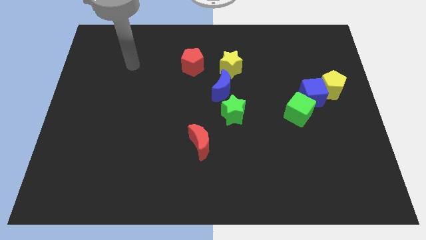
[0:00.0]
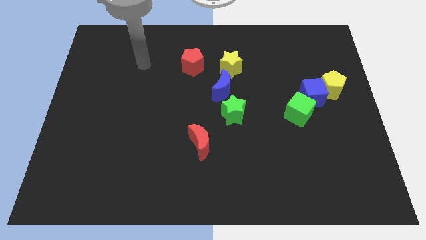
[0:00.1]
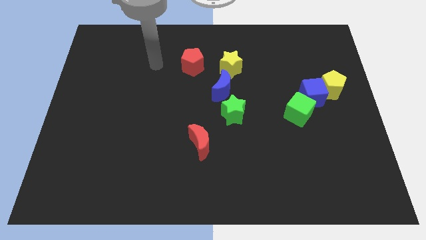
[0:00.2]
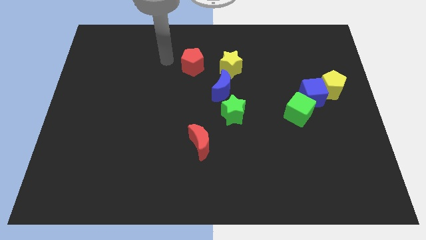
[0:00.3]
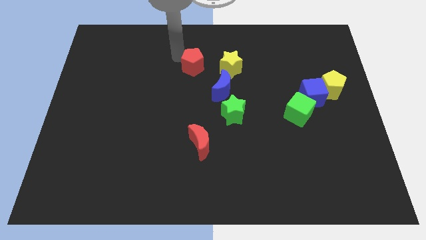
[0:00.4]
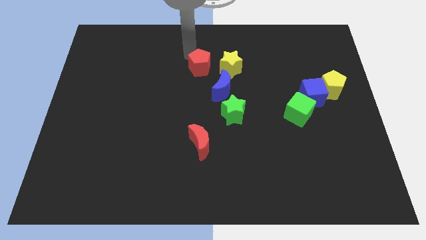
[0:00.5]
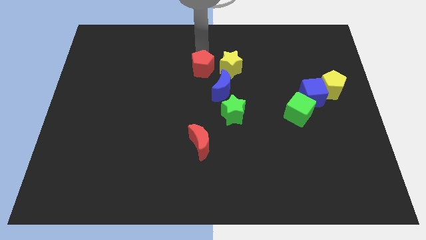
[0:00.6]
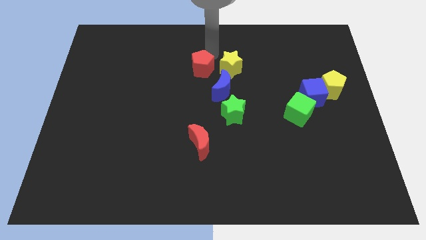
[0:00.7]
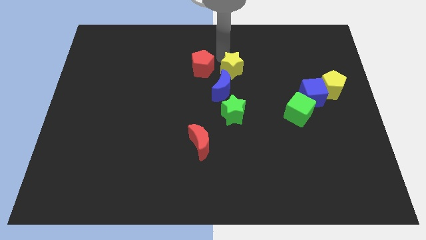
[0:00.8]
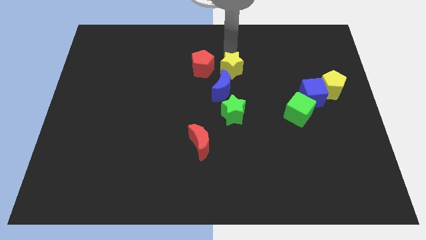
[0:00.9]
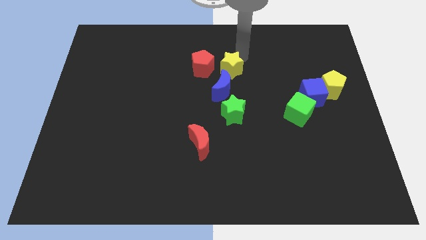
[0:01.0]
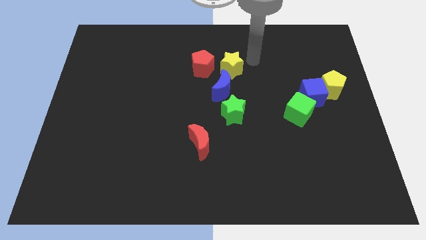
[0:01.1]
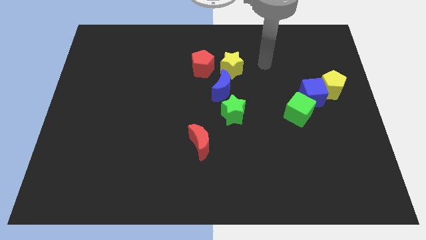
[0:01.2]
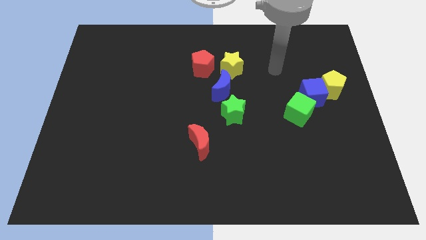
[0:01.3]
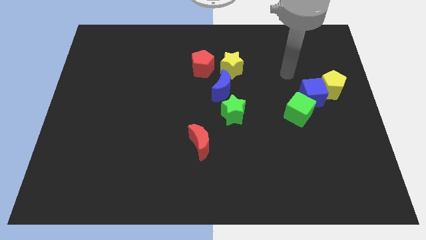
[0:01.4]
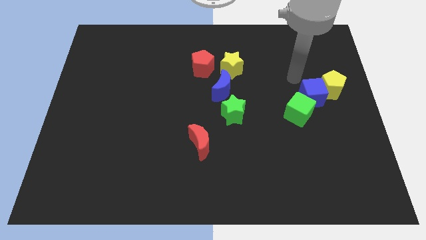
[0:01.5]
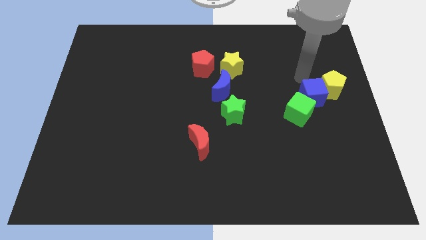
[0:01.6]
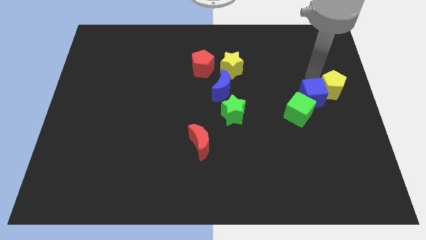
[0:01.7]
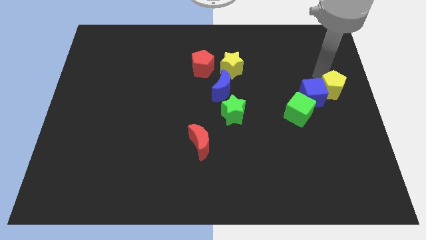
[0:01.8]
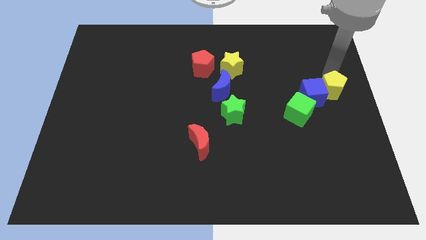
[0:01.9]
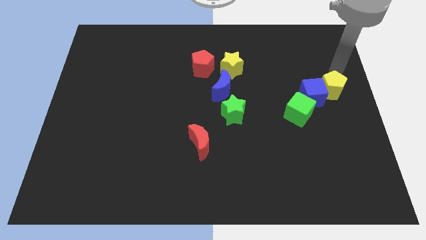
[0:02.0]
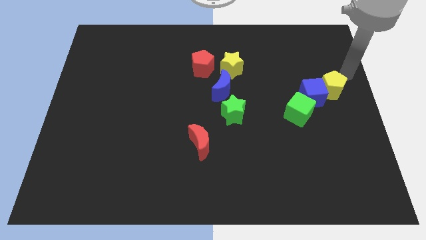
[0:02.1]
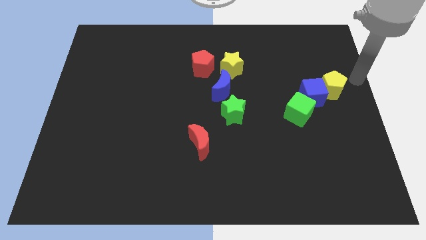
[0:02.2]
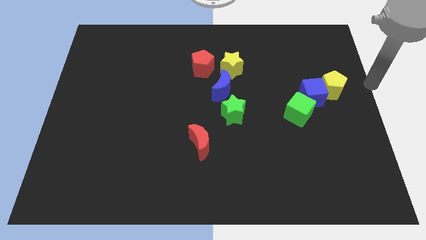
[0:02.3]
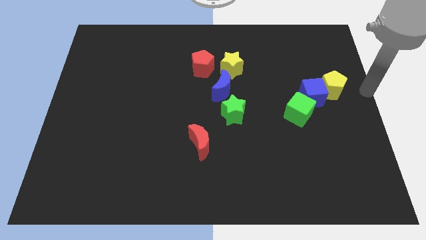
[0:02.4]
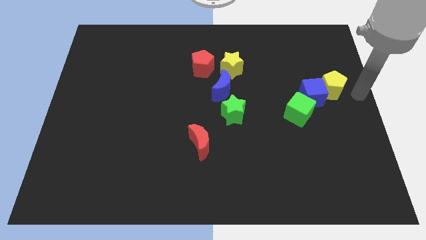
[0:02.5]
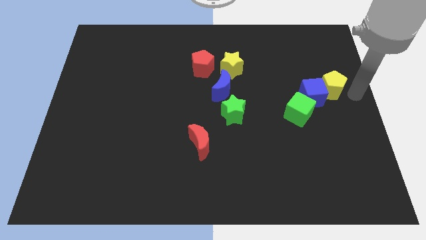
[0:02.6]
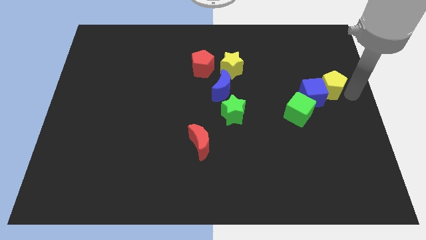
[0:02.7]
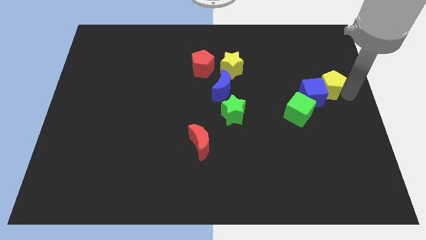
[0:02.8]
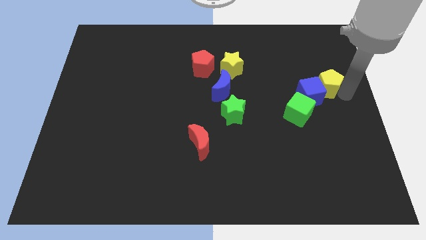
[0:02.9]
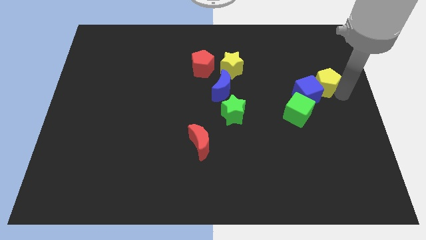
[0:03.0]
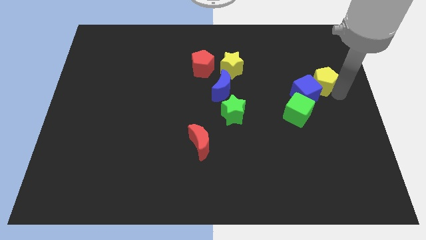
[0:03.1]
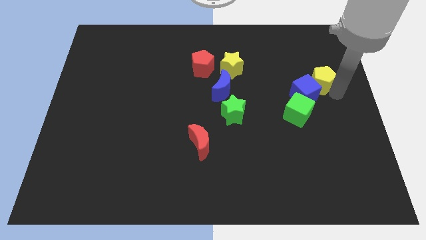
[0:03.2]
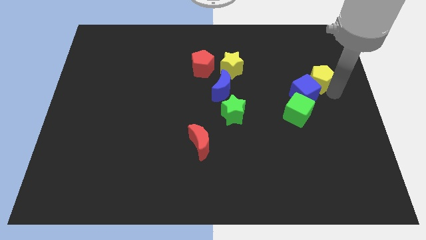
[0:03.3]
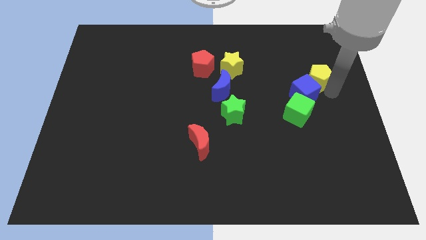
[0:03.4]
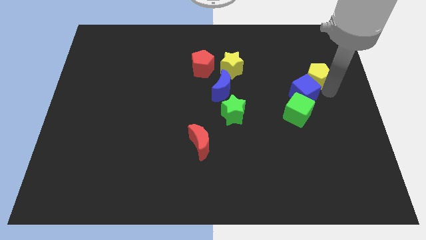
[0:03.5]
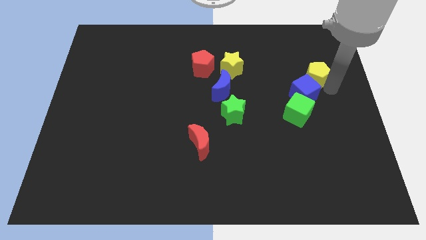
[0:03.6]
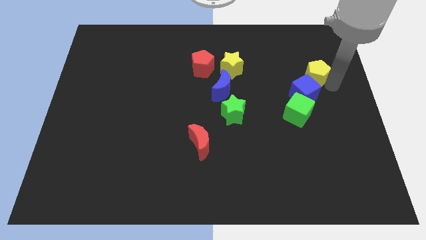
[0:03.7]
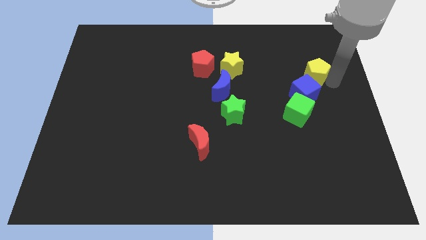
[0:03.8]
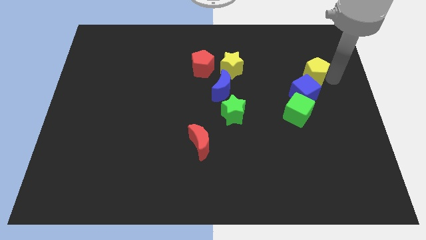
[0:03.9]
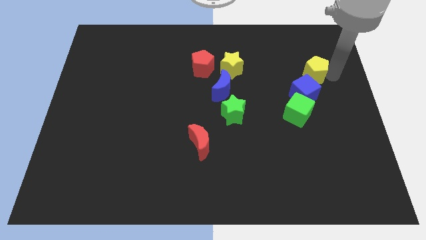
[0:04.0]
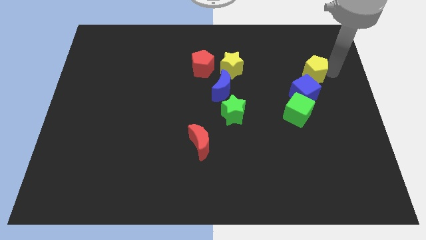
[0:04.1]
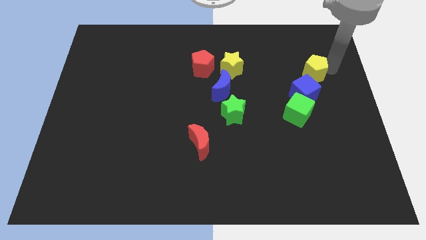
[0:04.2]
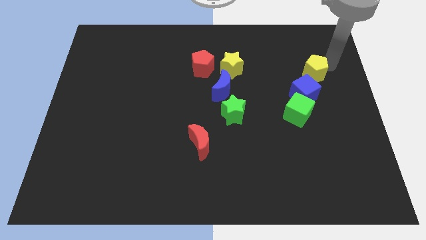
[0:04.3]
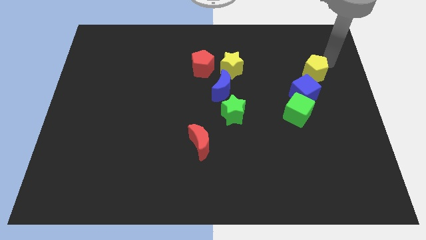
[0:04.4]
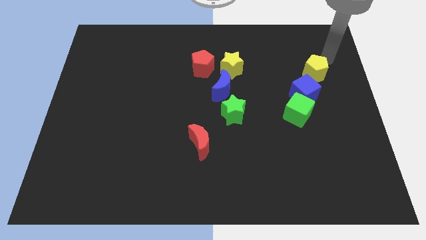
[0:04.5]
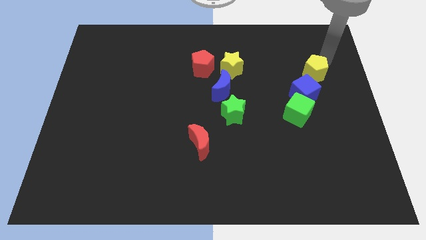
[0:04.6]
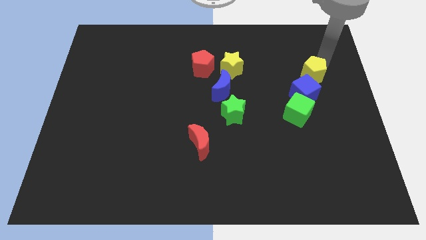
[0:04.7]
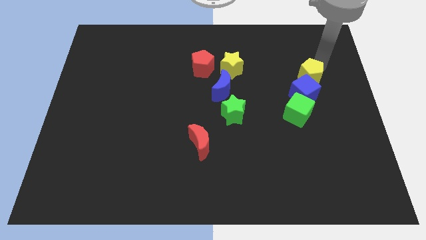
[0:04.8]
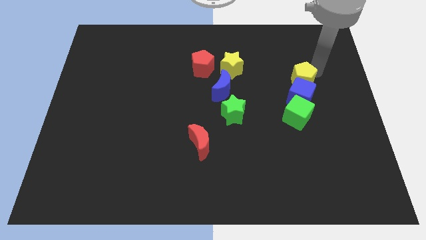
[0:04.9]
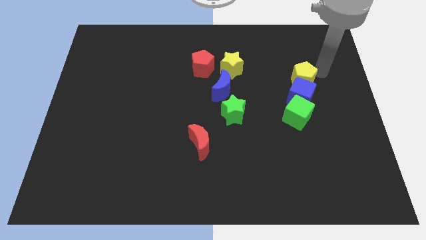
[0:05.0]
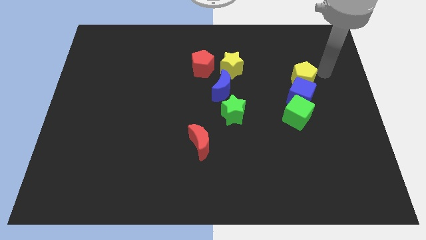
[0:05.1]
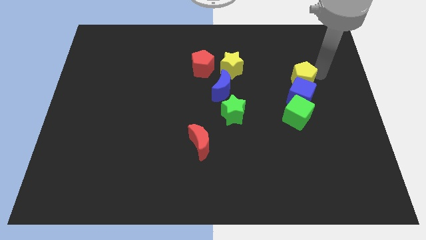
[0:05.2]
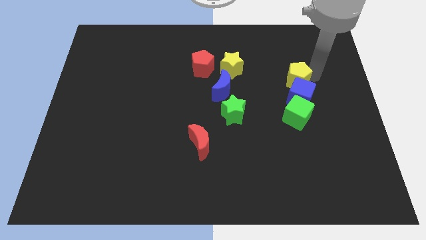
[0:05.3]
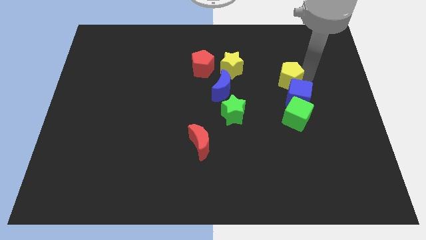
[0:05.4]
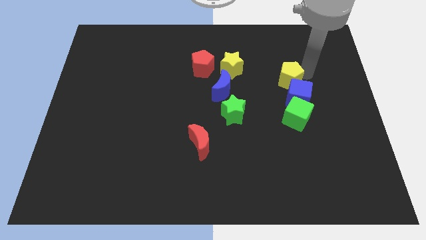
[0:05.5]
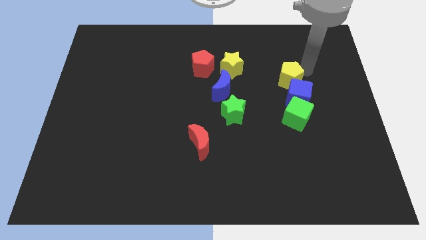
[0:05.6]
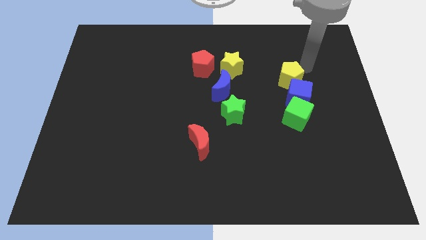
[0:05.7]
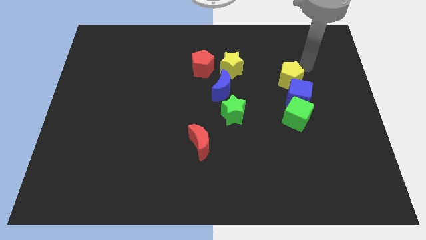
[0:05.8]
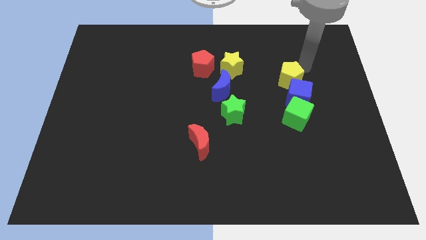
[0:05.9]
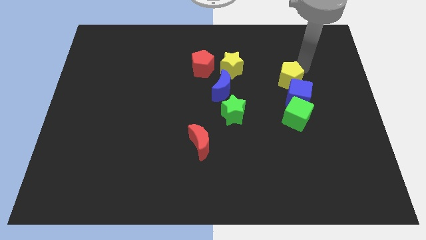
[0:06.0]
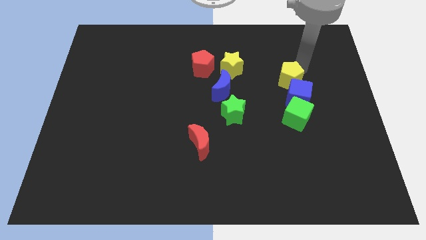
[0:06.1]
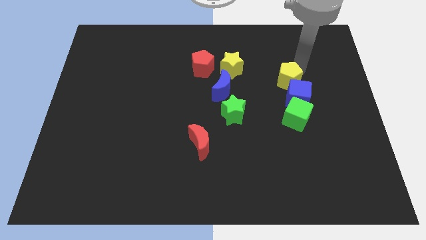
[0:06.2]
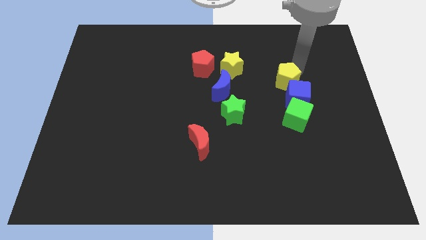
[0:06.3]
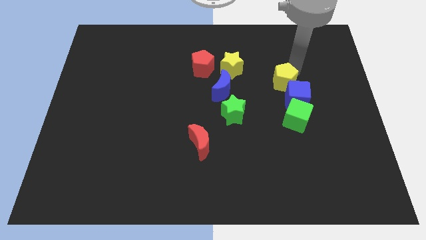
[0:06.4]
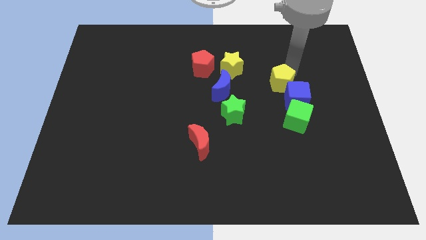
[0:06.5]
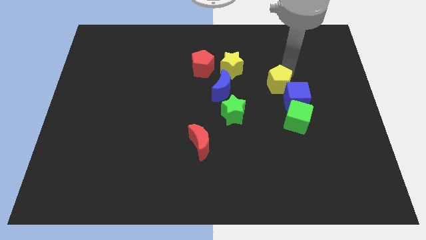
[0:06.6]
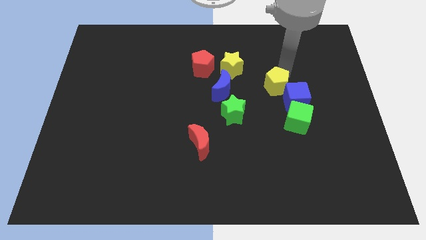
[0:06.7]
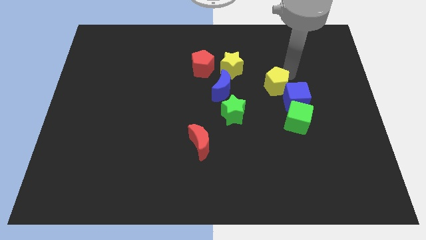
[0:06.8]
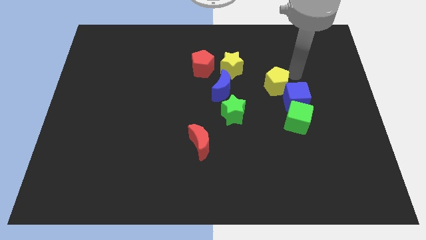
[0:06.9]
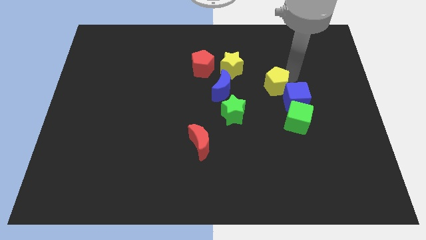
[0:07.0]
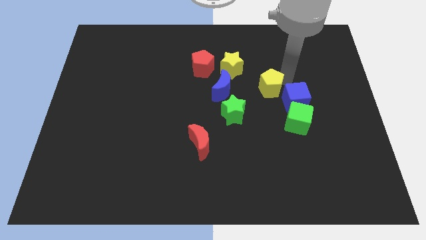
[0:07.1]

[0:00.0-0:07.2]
move the yellow pentagon to the top right side of the green star
